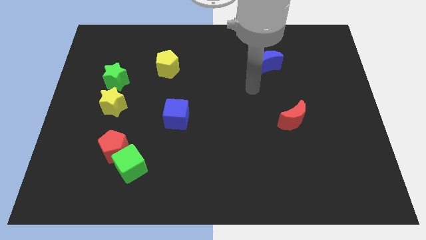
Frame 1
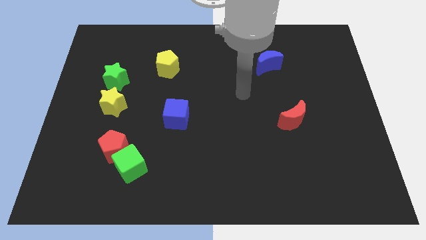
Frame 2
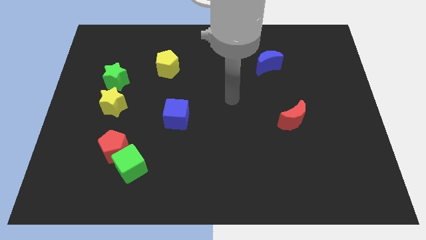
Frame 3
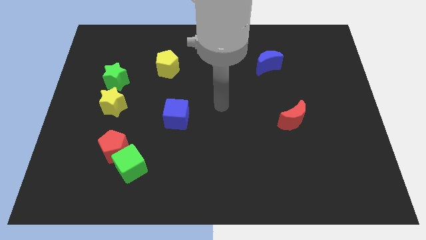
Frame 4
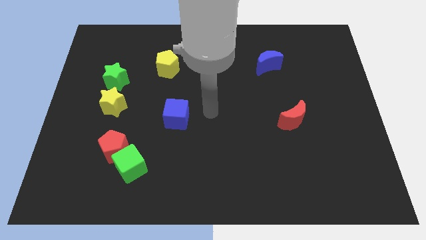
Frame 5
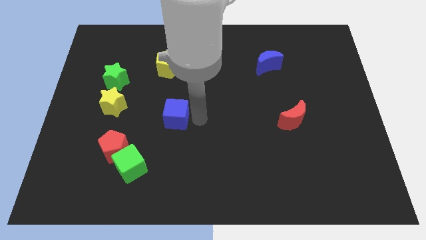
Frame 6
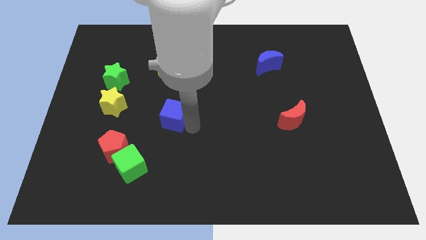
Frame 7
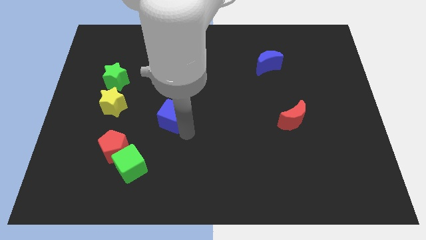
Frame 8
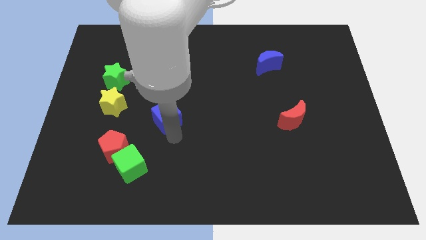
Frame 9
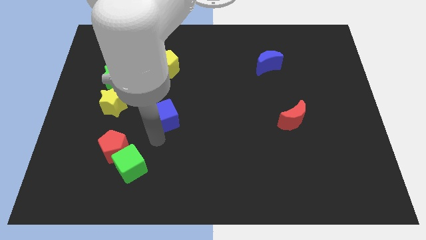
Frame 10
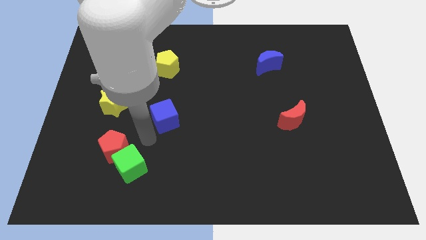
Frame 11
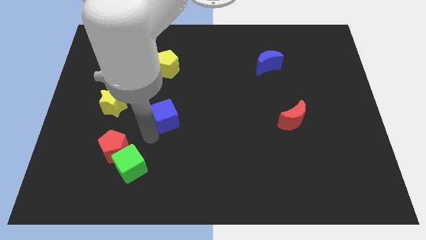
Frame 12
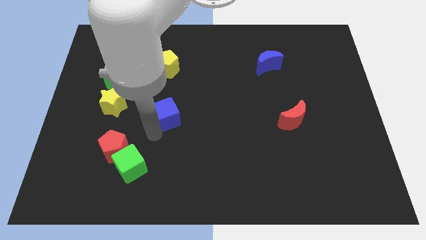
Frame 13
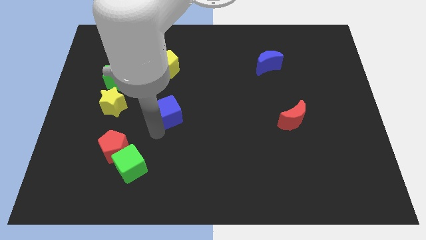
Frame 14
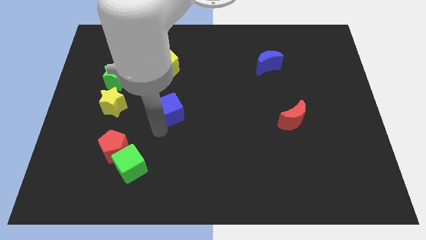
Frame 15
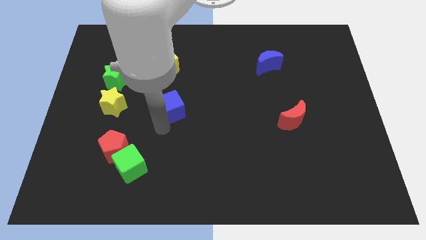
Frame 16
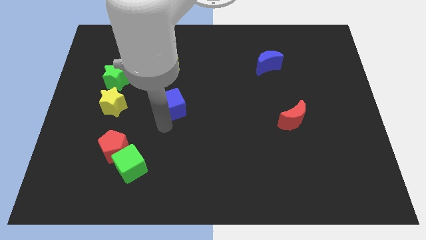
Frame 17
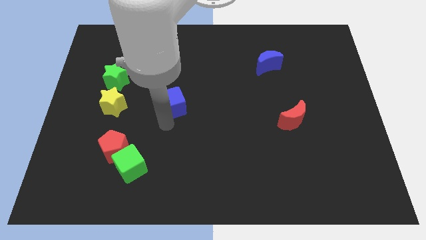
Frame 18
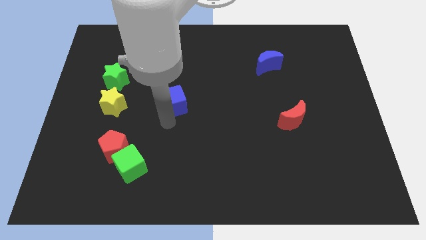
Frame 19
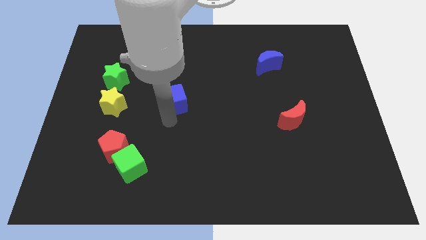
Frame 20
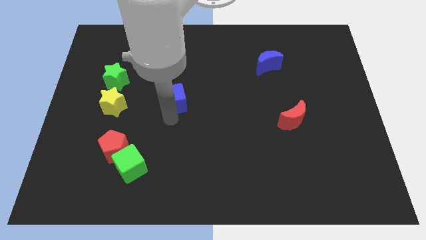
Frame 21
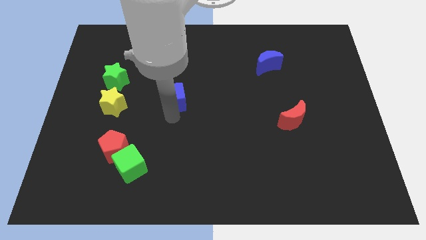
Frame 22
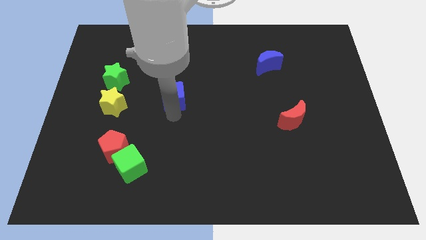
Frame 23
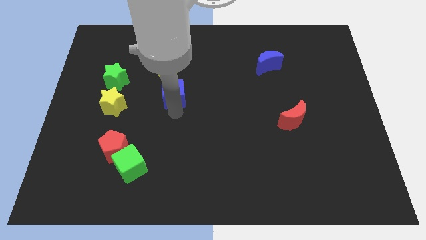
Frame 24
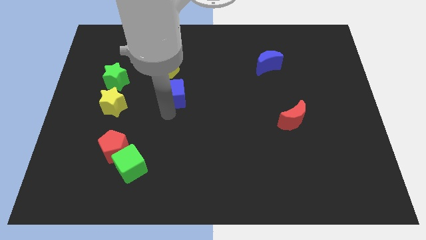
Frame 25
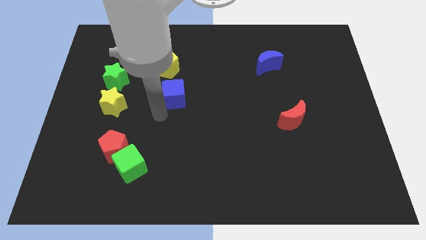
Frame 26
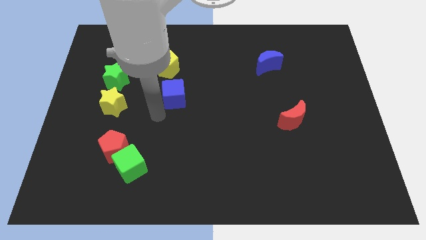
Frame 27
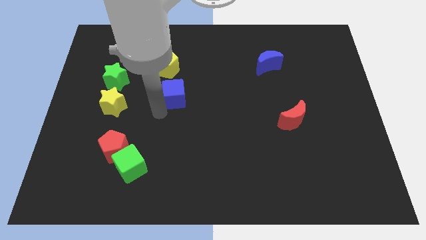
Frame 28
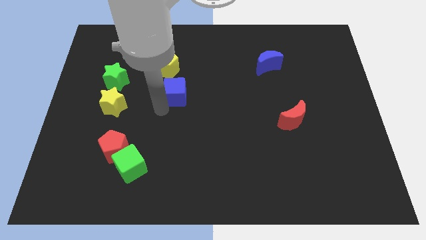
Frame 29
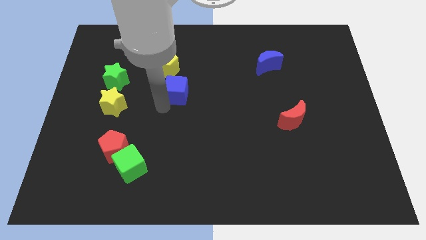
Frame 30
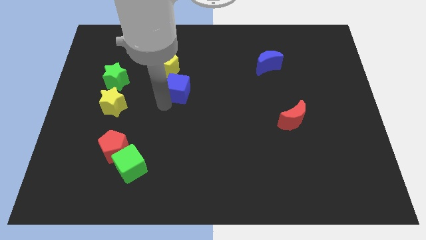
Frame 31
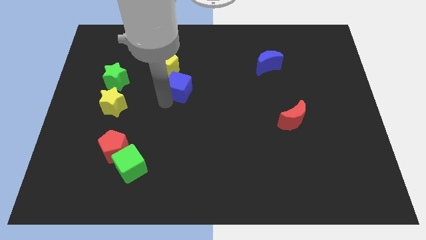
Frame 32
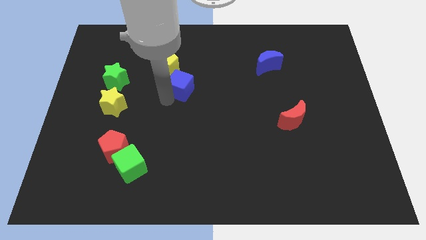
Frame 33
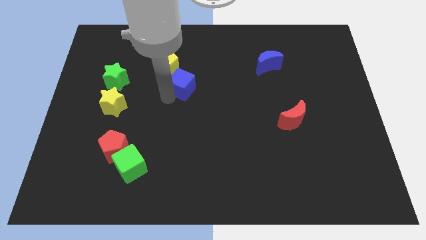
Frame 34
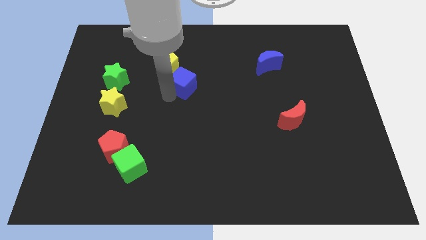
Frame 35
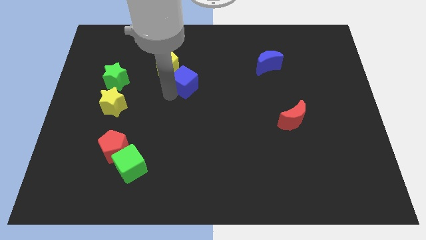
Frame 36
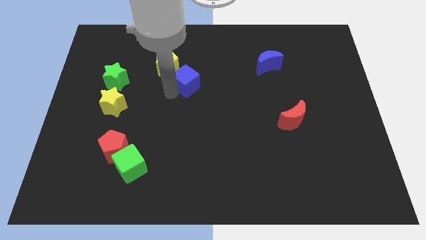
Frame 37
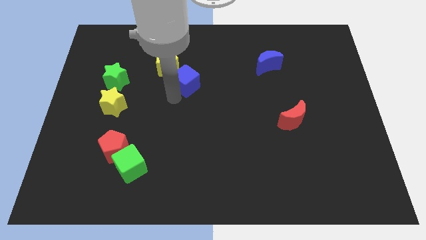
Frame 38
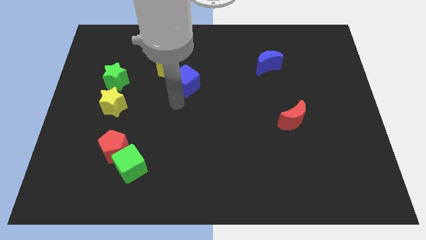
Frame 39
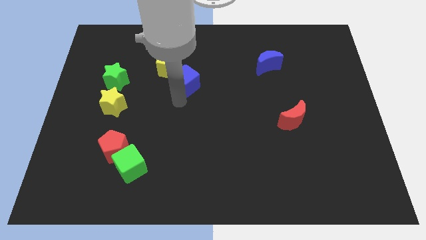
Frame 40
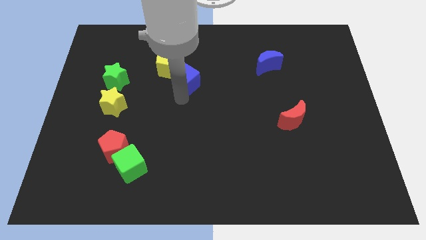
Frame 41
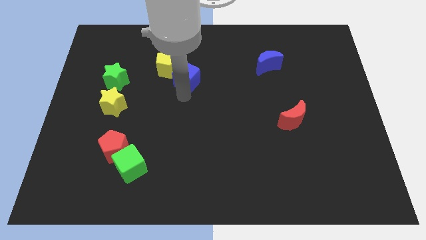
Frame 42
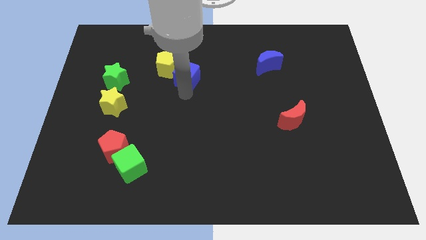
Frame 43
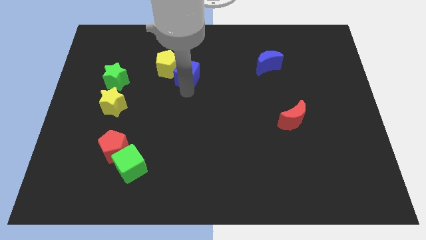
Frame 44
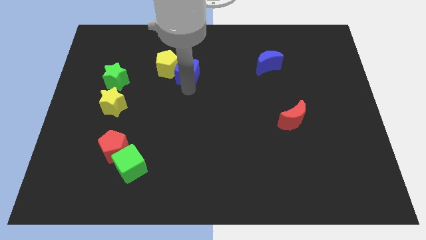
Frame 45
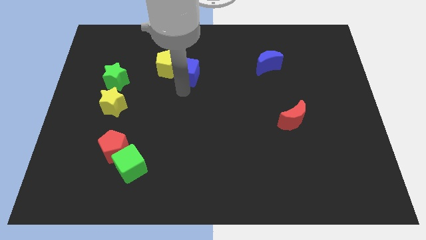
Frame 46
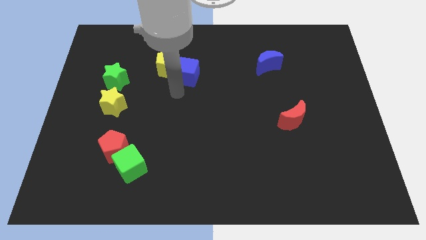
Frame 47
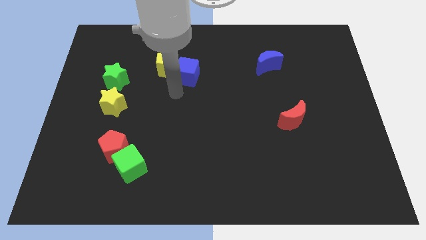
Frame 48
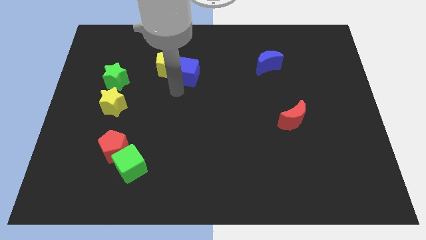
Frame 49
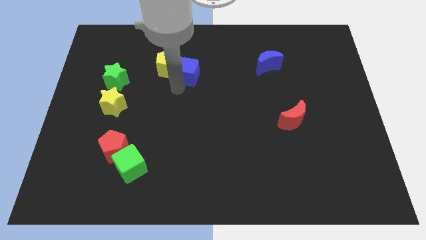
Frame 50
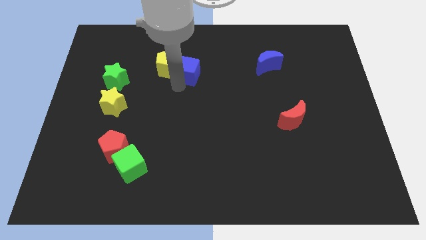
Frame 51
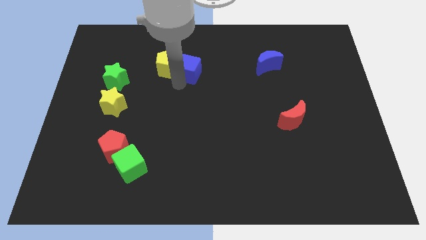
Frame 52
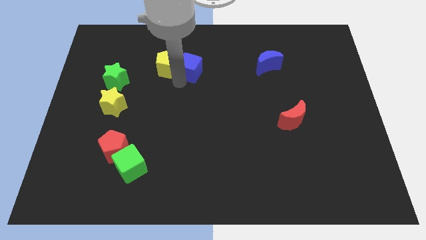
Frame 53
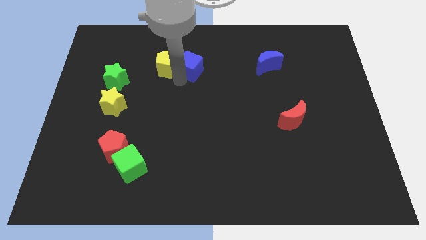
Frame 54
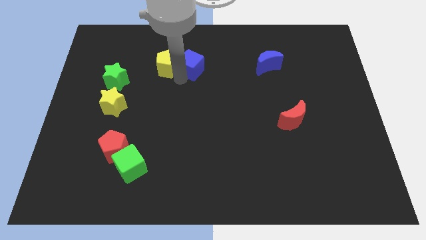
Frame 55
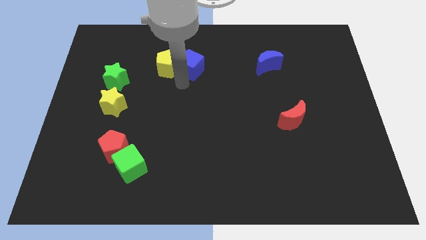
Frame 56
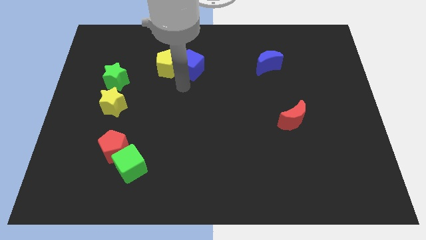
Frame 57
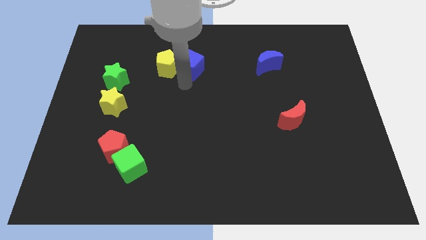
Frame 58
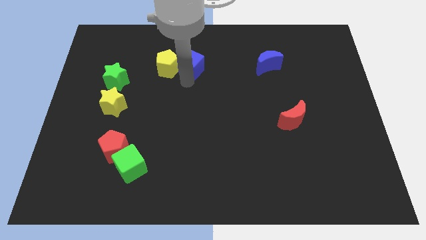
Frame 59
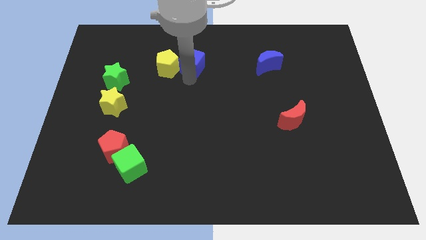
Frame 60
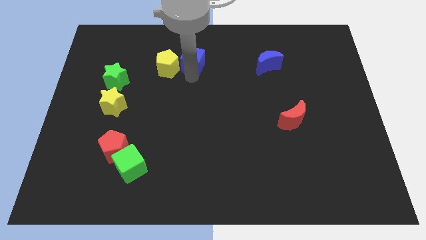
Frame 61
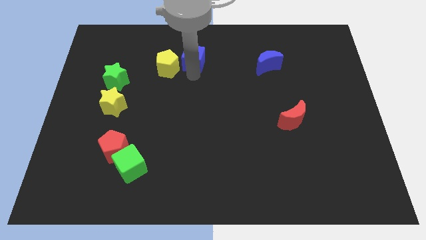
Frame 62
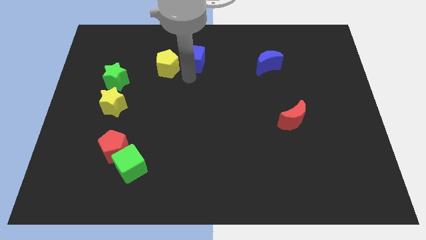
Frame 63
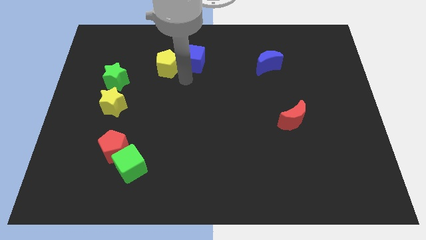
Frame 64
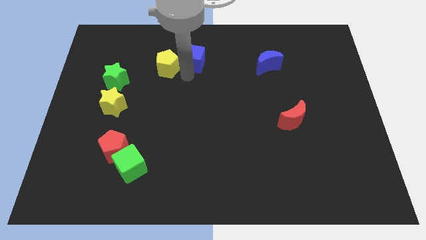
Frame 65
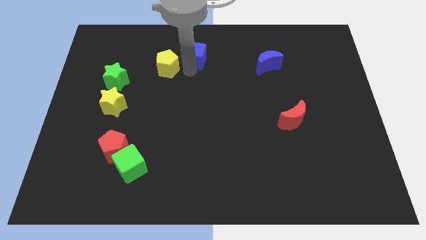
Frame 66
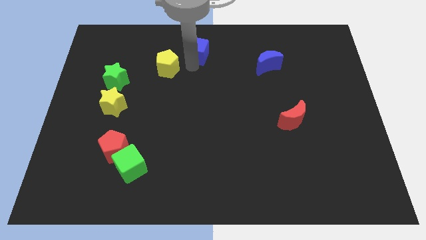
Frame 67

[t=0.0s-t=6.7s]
slide the blue cube to the towards your base
